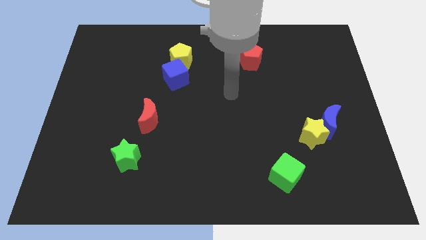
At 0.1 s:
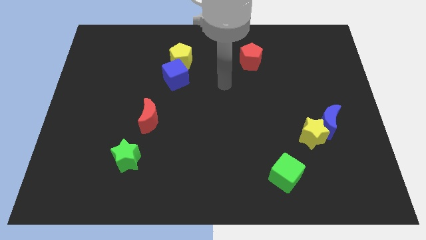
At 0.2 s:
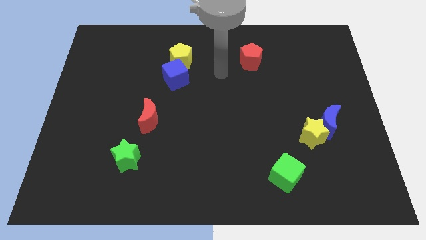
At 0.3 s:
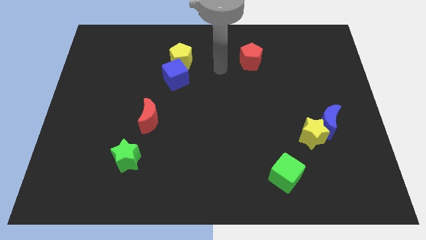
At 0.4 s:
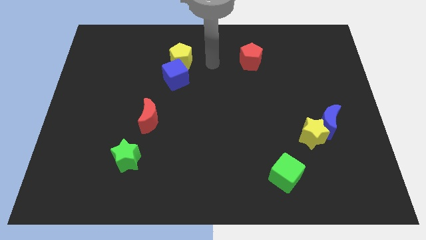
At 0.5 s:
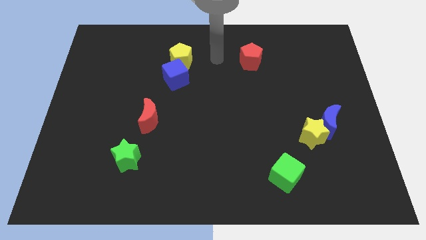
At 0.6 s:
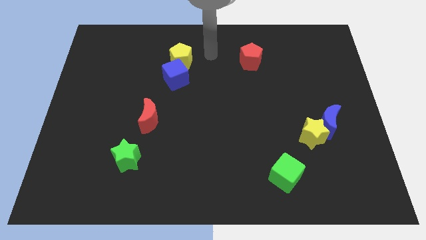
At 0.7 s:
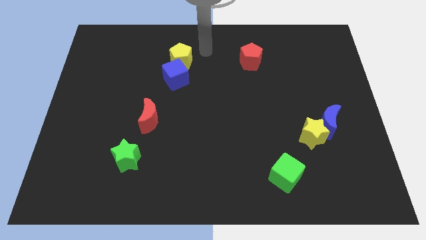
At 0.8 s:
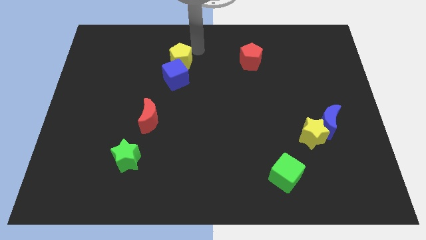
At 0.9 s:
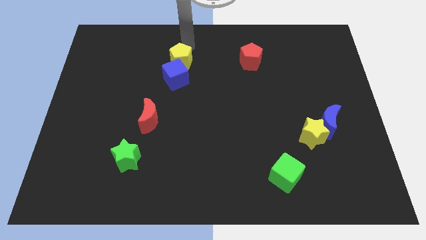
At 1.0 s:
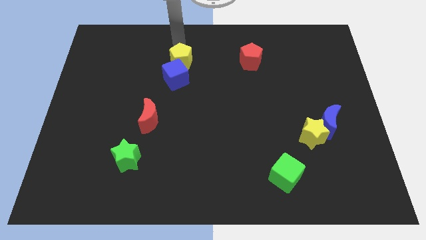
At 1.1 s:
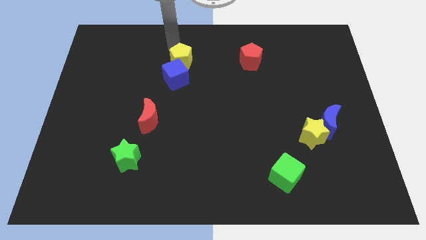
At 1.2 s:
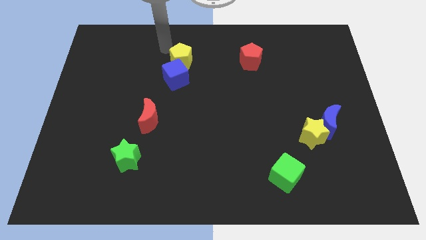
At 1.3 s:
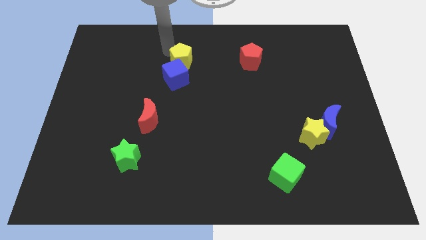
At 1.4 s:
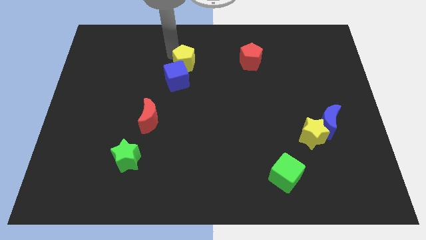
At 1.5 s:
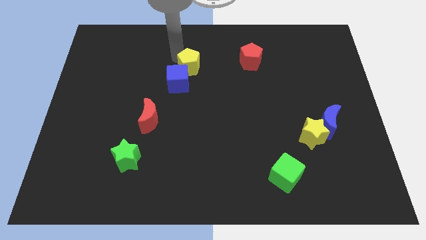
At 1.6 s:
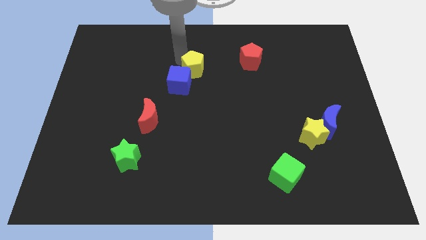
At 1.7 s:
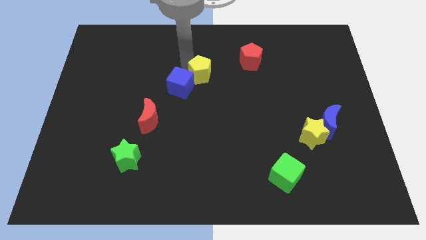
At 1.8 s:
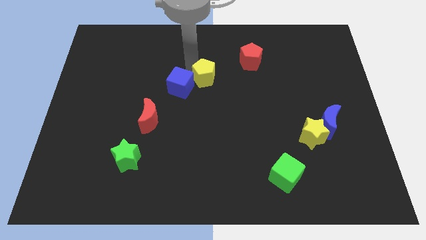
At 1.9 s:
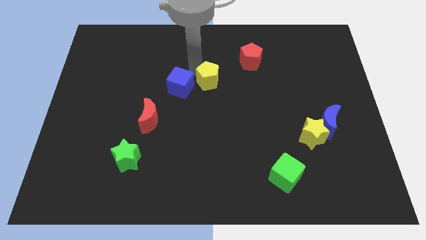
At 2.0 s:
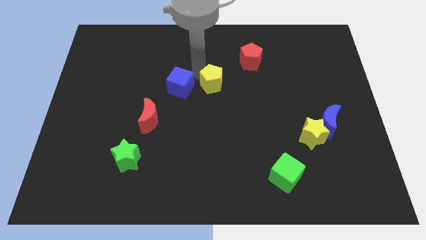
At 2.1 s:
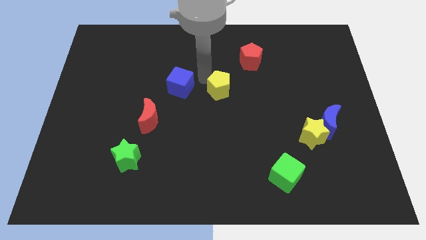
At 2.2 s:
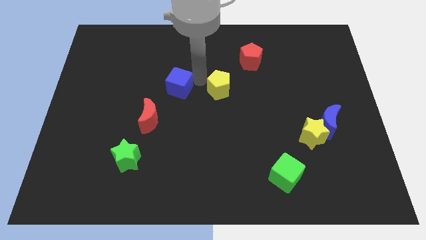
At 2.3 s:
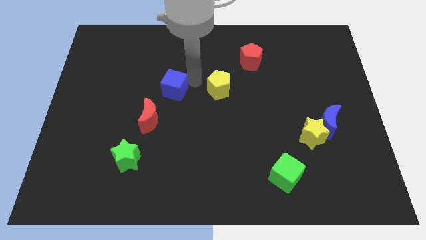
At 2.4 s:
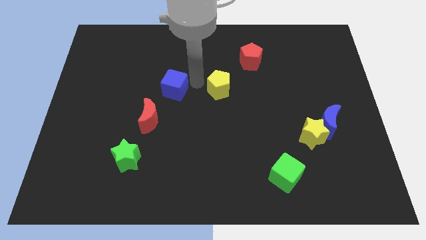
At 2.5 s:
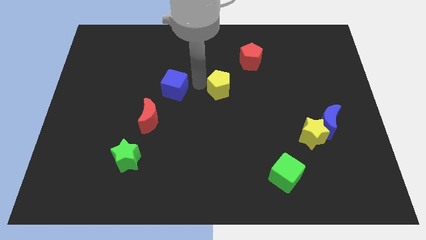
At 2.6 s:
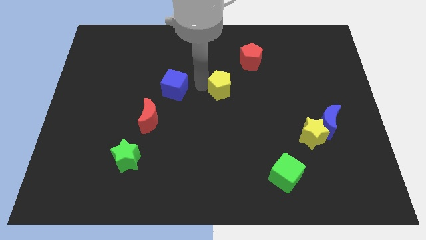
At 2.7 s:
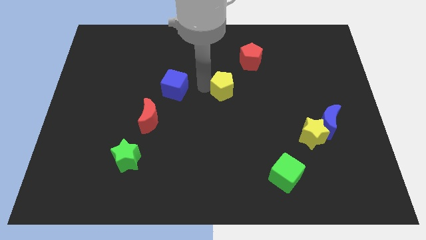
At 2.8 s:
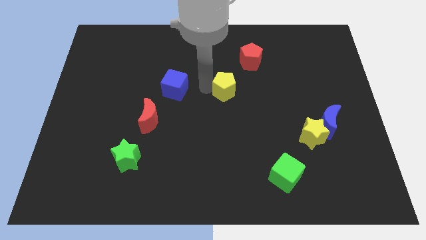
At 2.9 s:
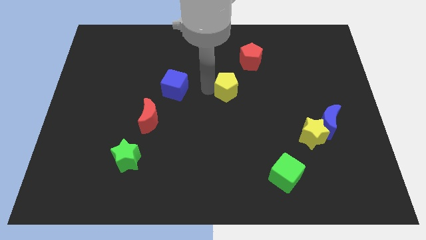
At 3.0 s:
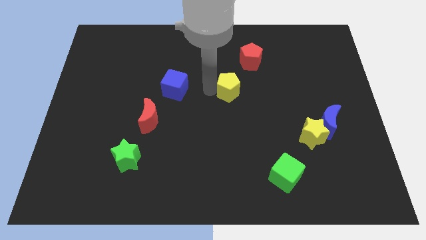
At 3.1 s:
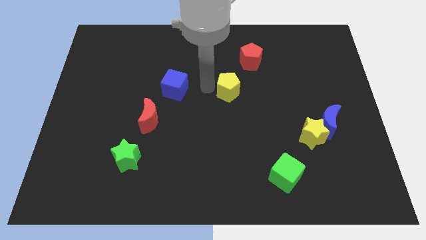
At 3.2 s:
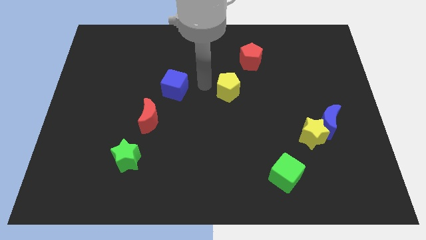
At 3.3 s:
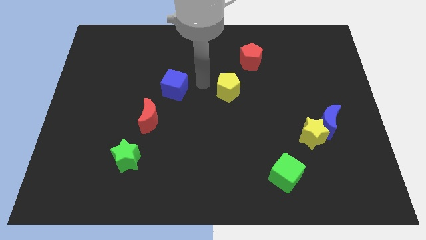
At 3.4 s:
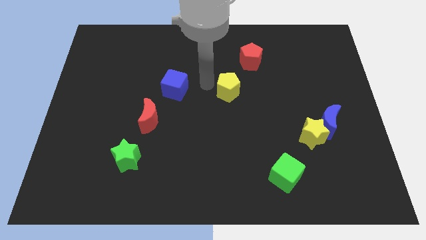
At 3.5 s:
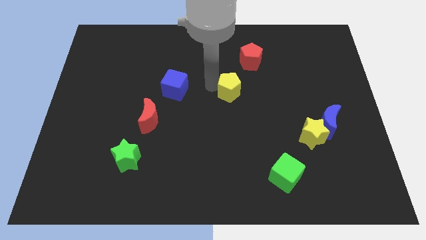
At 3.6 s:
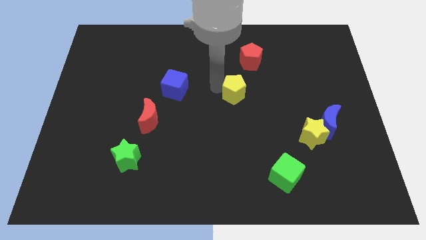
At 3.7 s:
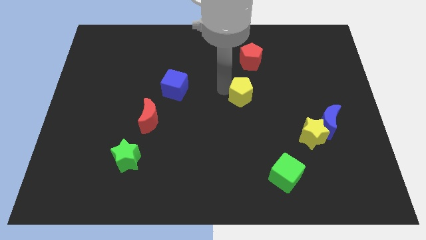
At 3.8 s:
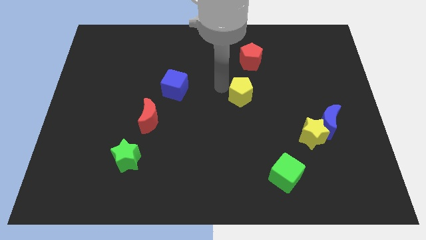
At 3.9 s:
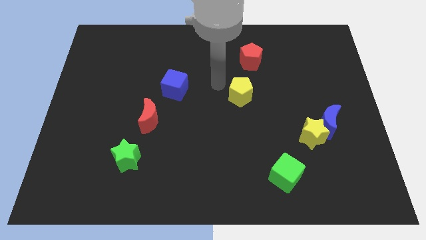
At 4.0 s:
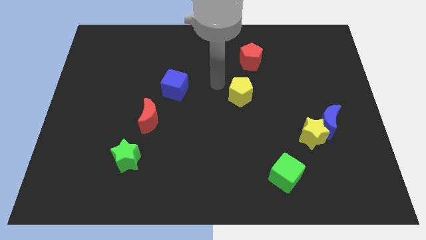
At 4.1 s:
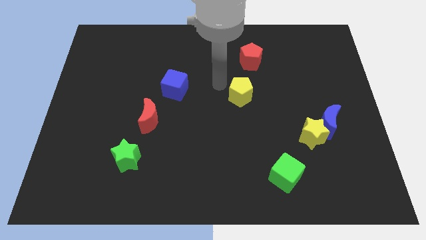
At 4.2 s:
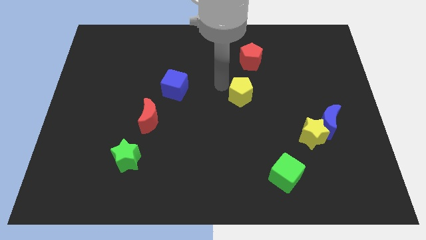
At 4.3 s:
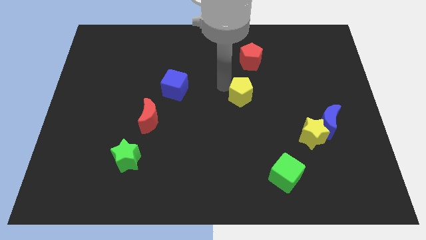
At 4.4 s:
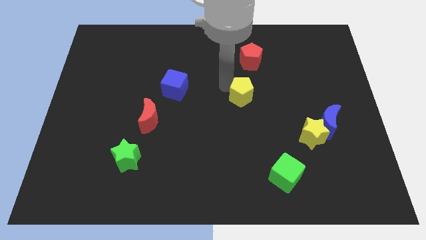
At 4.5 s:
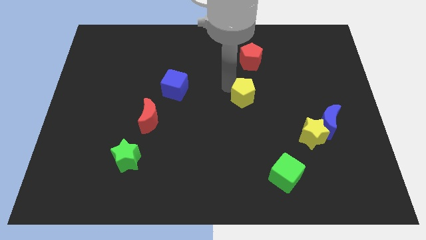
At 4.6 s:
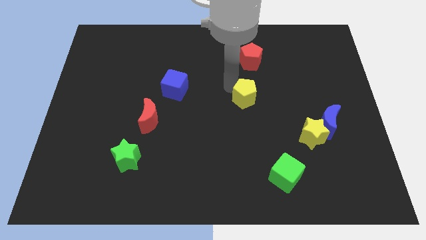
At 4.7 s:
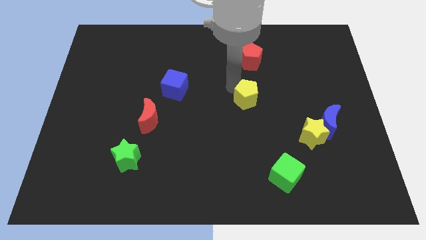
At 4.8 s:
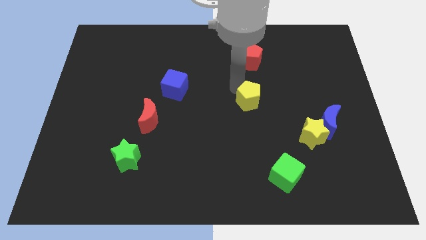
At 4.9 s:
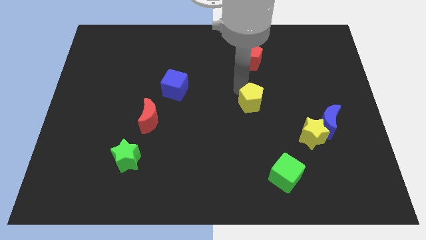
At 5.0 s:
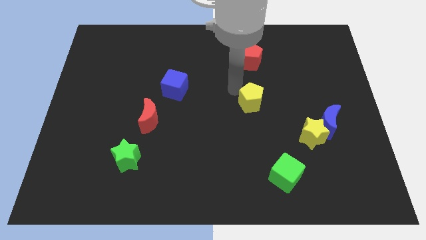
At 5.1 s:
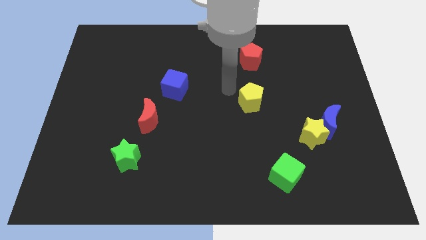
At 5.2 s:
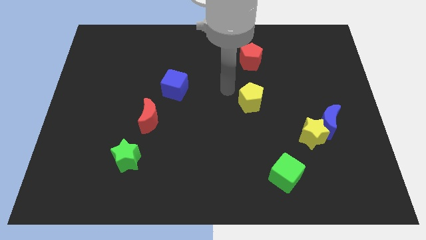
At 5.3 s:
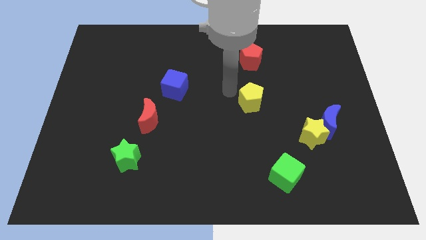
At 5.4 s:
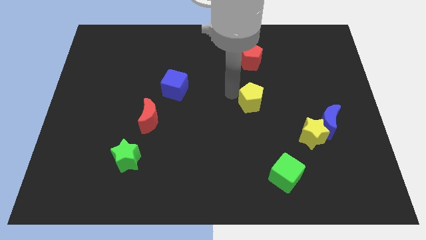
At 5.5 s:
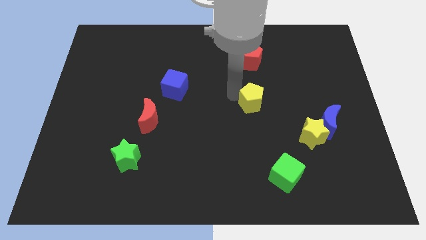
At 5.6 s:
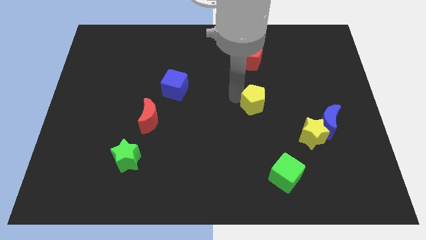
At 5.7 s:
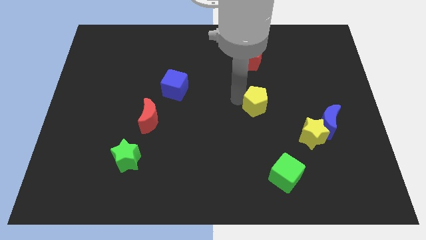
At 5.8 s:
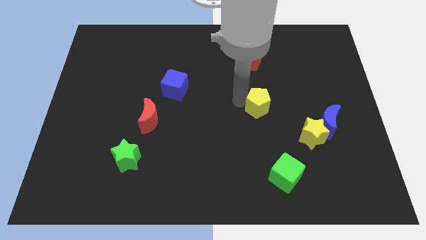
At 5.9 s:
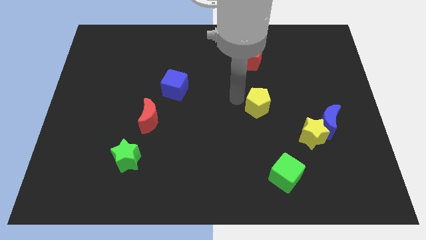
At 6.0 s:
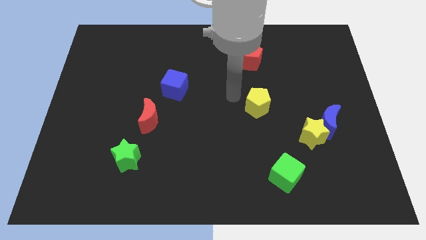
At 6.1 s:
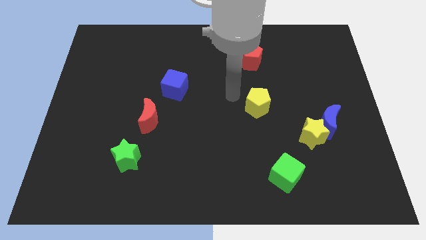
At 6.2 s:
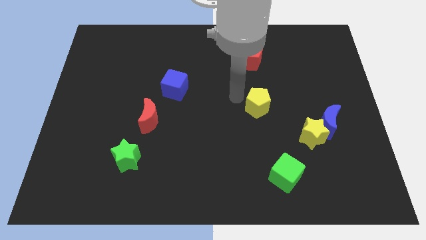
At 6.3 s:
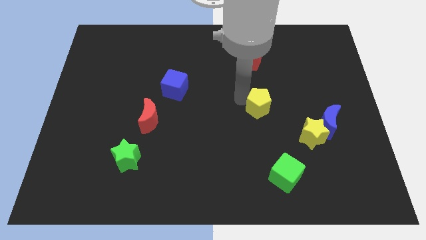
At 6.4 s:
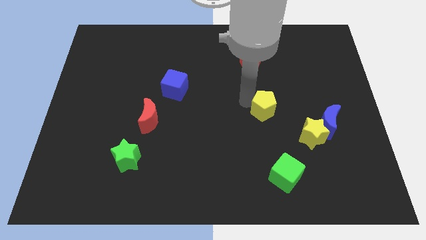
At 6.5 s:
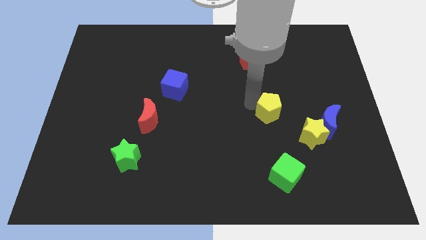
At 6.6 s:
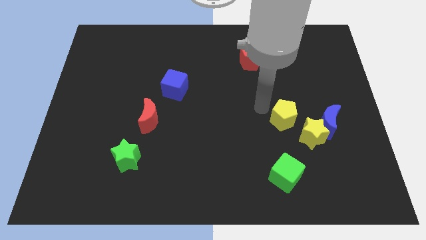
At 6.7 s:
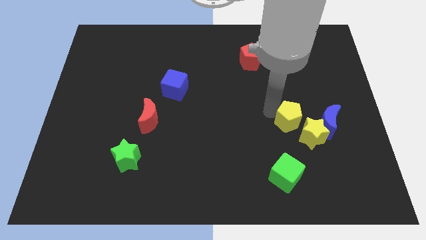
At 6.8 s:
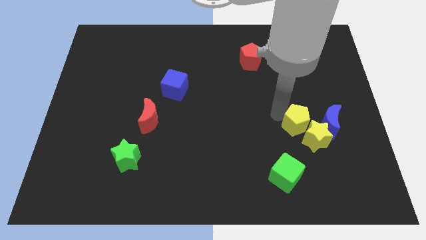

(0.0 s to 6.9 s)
move the yellow pentagon towards the yellow star
